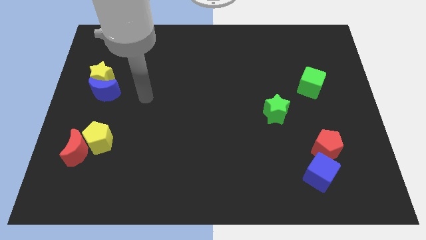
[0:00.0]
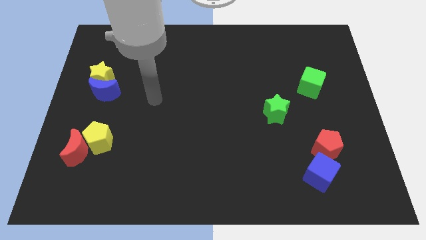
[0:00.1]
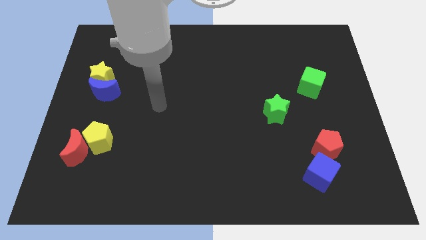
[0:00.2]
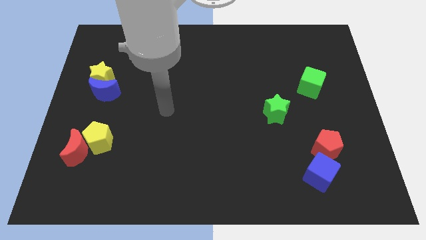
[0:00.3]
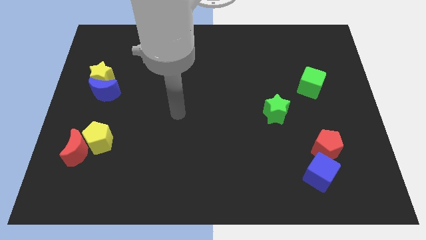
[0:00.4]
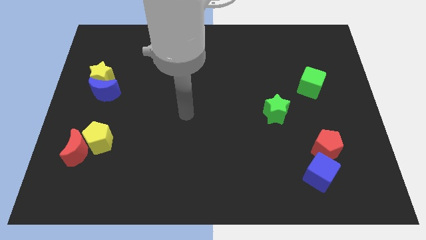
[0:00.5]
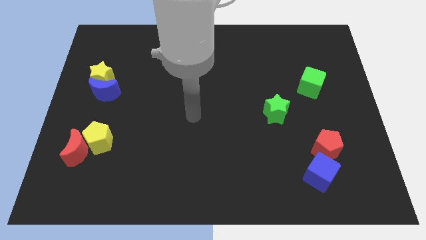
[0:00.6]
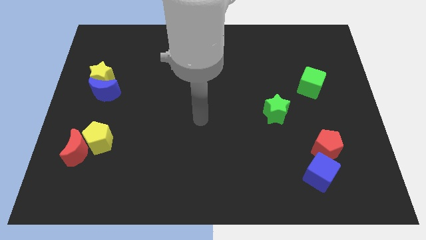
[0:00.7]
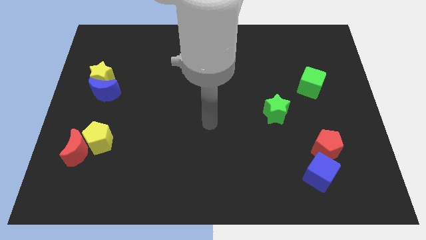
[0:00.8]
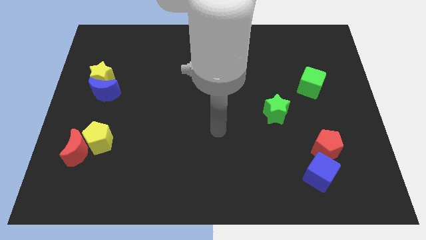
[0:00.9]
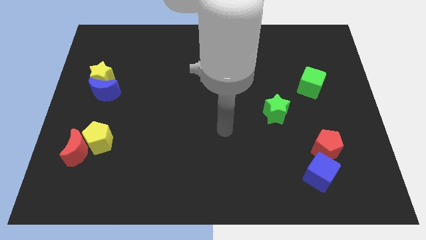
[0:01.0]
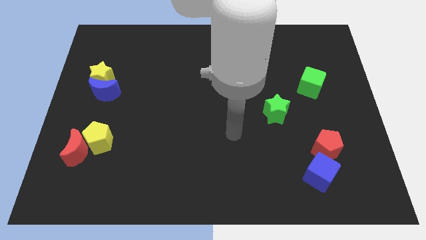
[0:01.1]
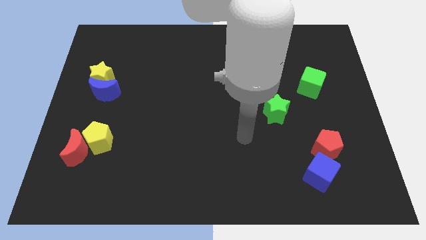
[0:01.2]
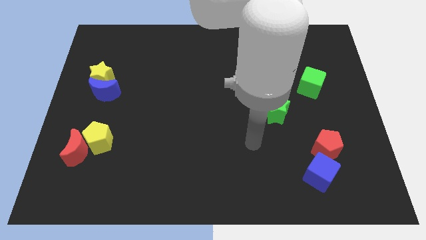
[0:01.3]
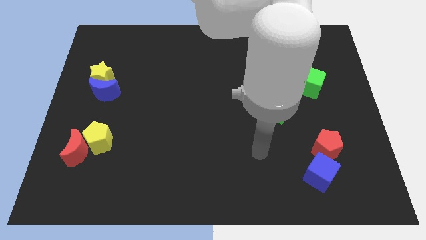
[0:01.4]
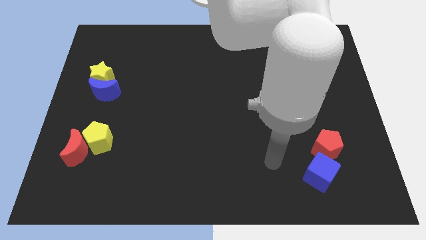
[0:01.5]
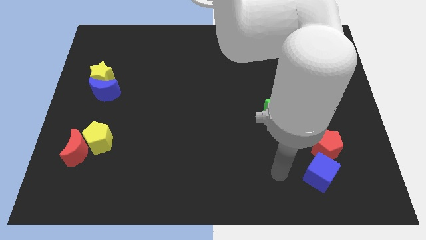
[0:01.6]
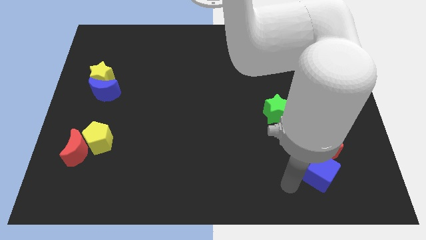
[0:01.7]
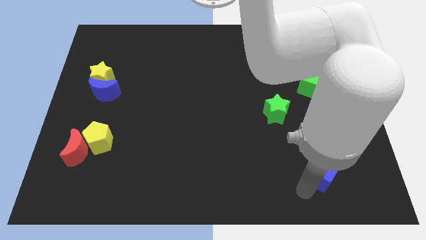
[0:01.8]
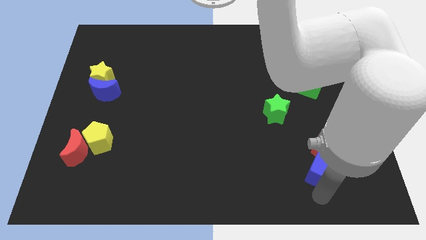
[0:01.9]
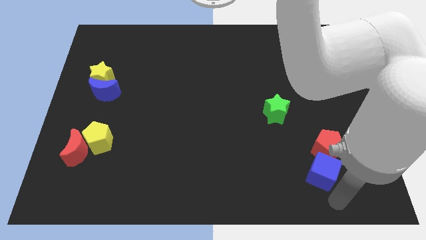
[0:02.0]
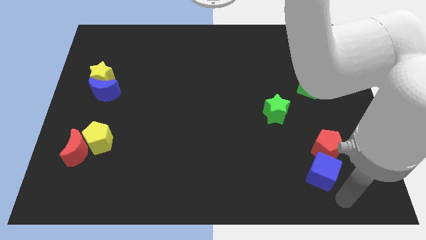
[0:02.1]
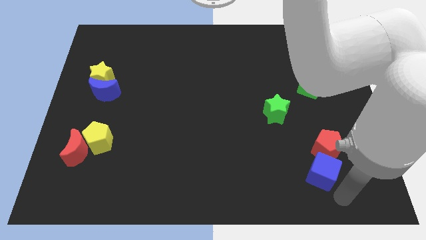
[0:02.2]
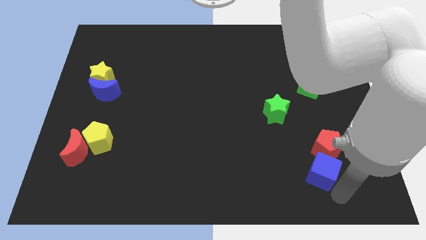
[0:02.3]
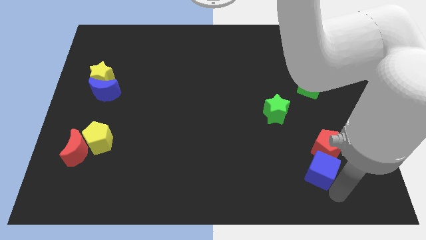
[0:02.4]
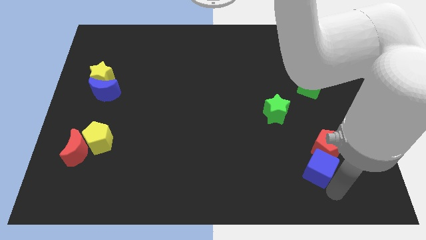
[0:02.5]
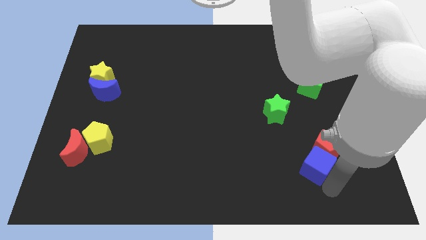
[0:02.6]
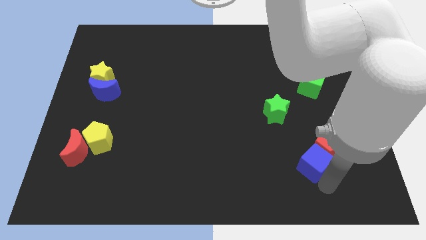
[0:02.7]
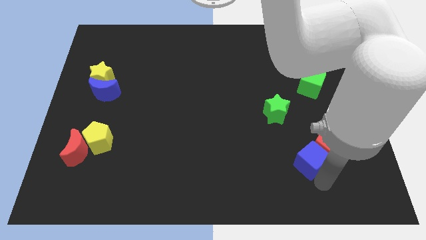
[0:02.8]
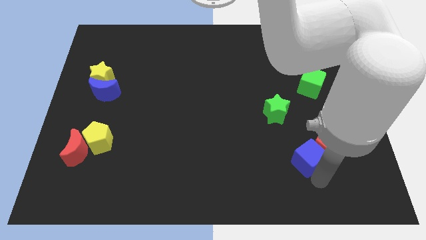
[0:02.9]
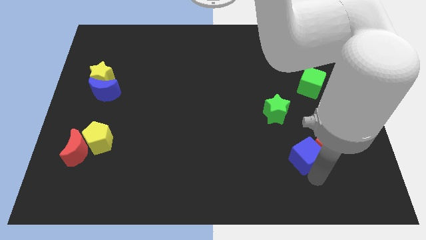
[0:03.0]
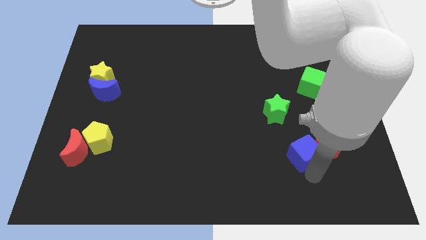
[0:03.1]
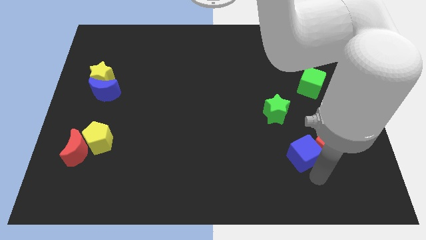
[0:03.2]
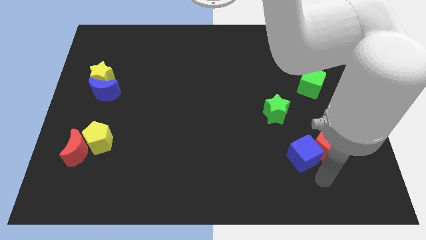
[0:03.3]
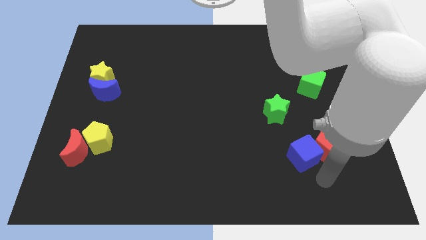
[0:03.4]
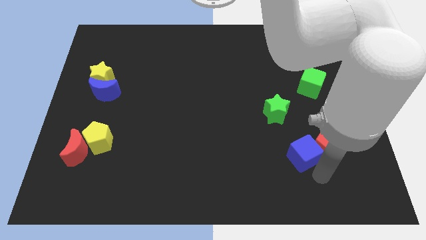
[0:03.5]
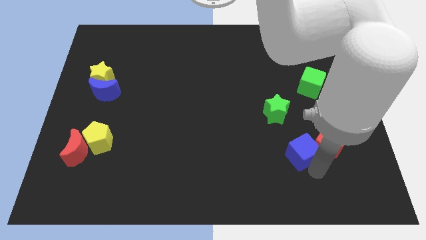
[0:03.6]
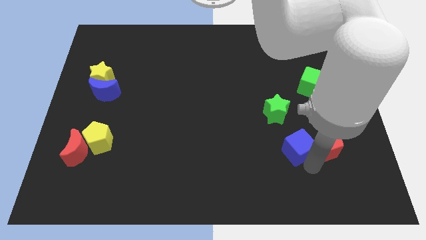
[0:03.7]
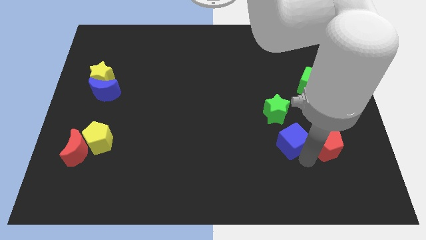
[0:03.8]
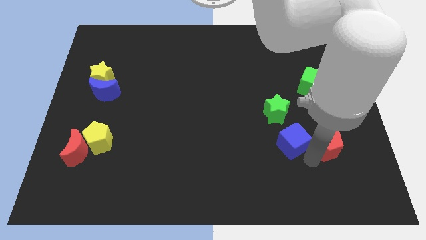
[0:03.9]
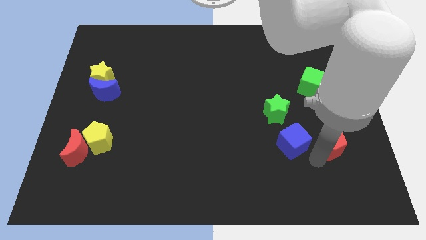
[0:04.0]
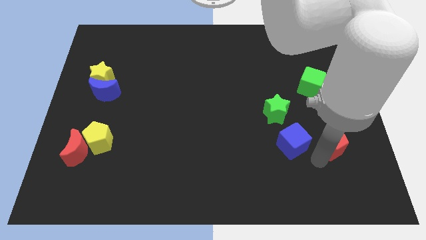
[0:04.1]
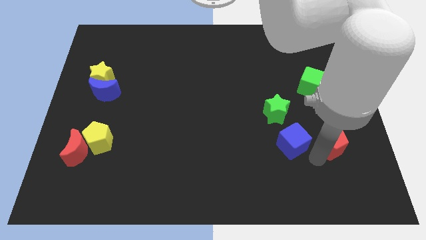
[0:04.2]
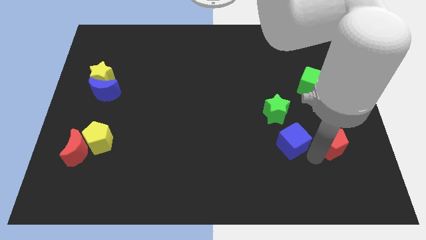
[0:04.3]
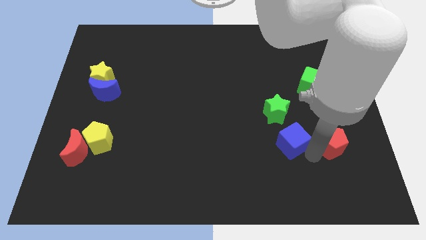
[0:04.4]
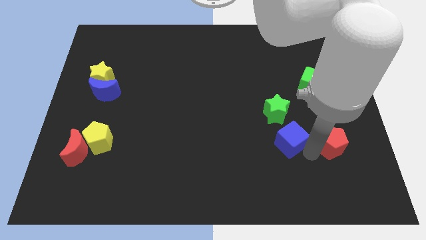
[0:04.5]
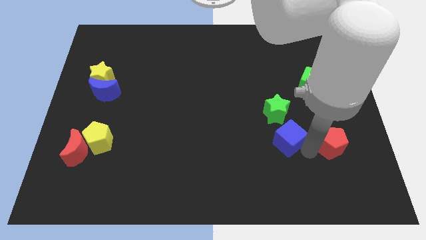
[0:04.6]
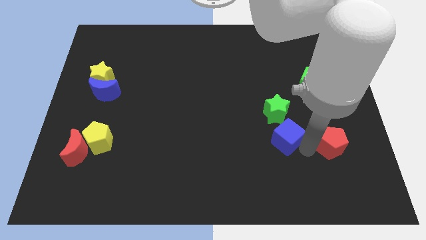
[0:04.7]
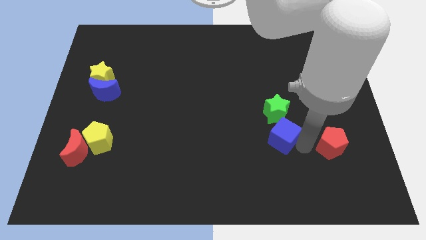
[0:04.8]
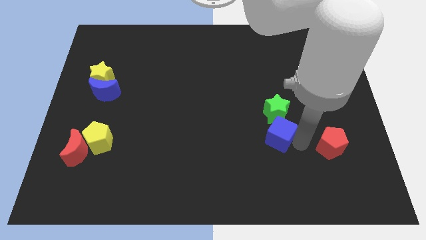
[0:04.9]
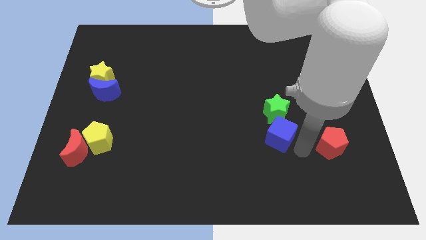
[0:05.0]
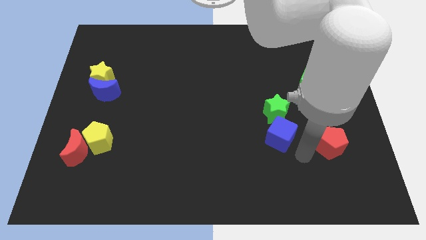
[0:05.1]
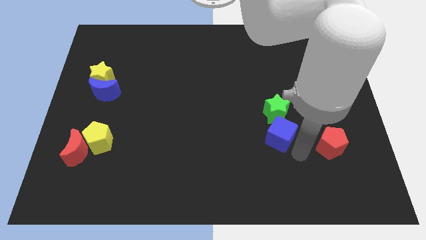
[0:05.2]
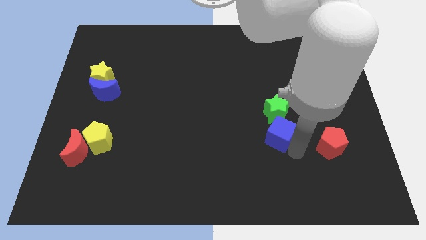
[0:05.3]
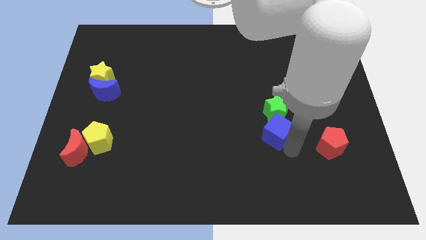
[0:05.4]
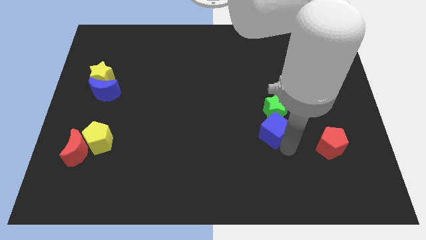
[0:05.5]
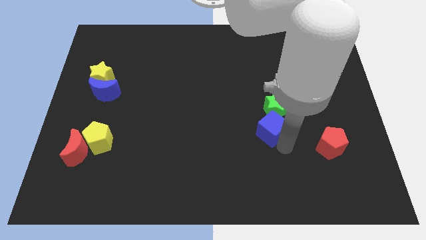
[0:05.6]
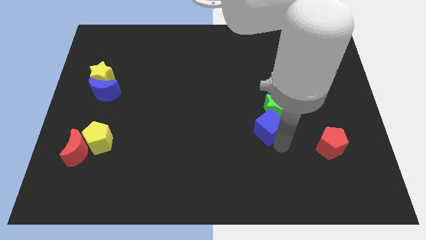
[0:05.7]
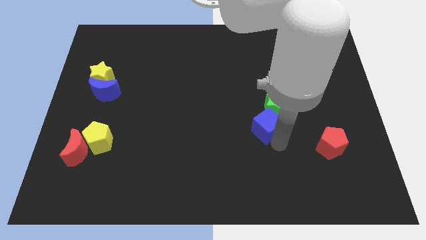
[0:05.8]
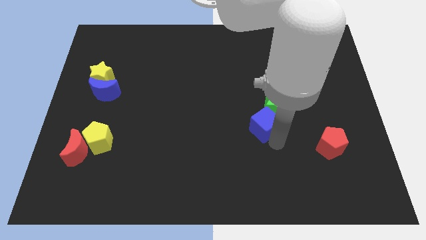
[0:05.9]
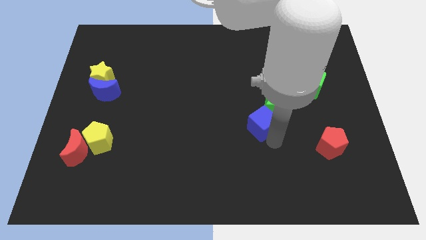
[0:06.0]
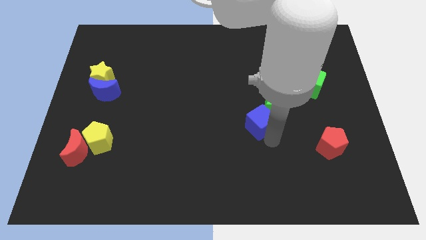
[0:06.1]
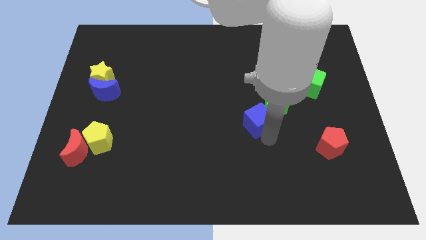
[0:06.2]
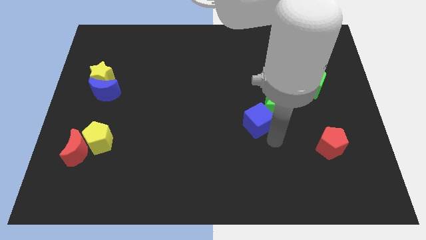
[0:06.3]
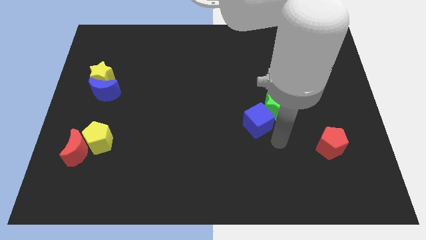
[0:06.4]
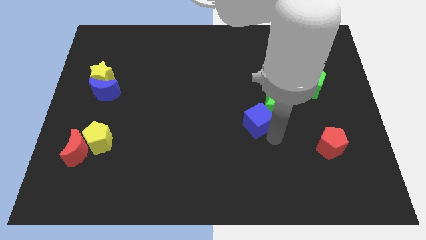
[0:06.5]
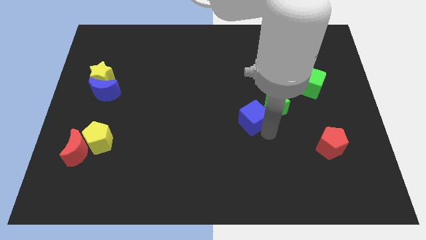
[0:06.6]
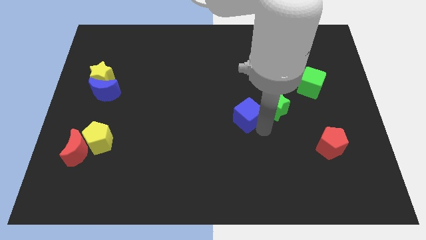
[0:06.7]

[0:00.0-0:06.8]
push the blue cube up and to the left

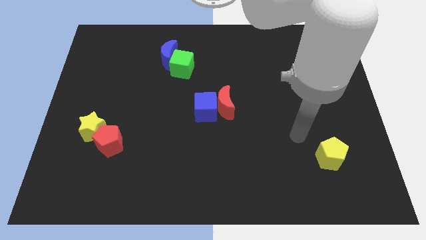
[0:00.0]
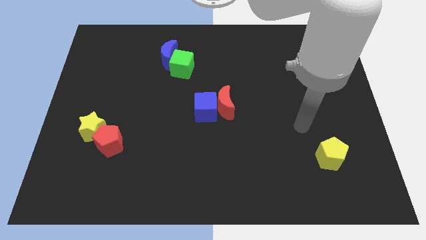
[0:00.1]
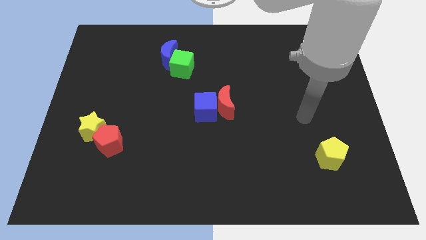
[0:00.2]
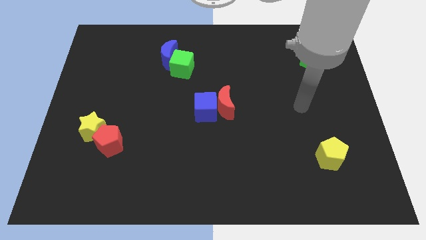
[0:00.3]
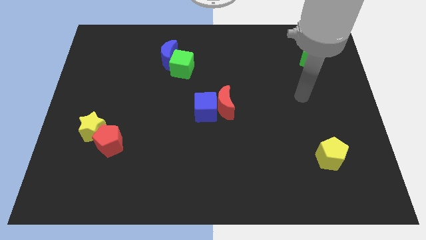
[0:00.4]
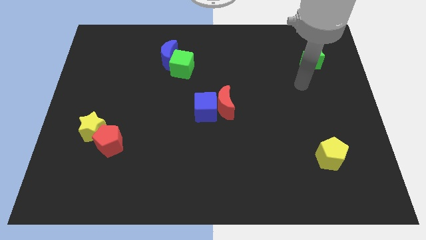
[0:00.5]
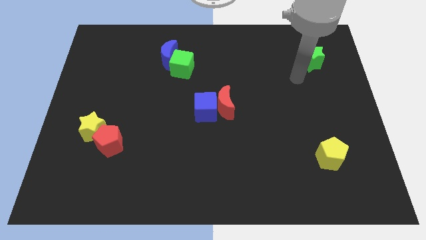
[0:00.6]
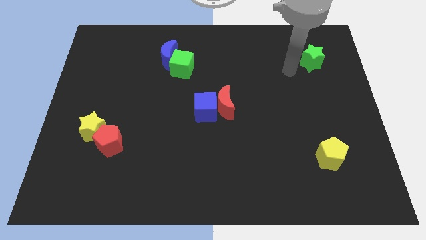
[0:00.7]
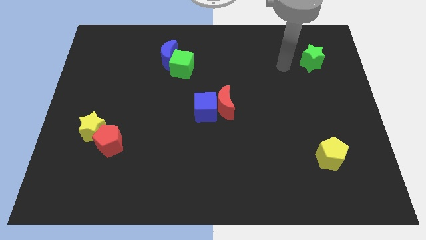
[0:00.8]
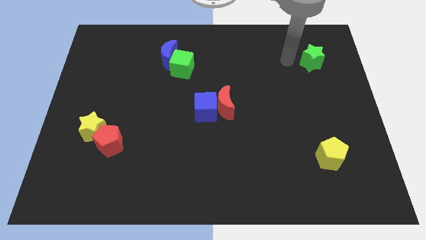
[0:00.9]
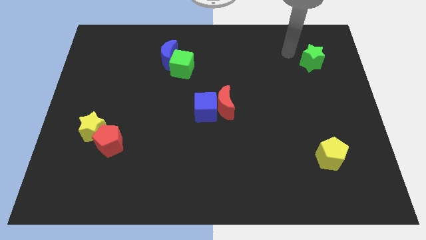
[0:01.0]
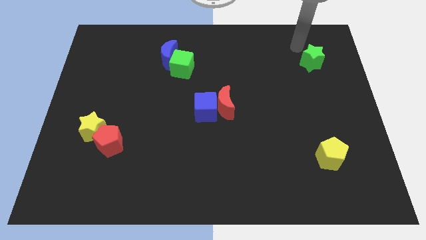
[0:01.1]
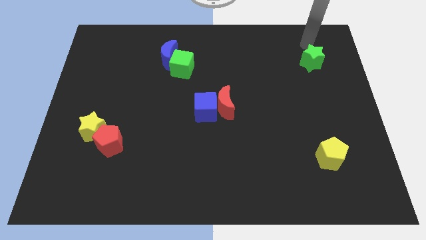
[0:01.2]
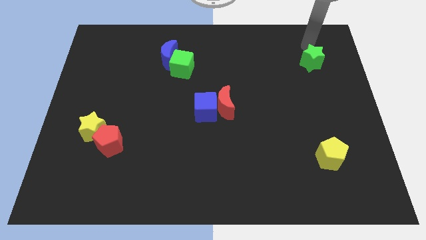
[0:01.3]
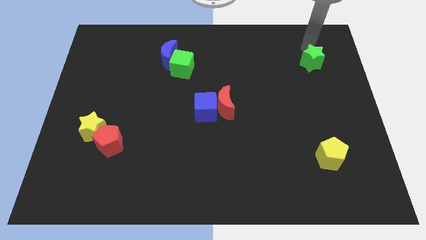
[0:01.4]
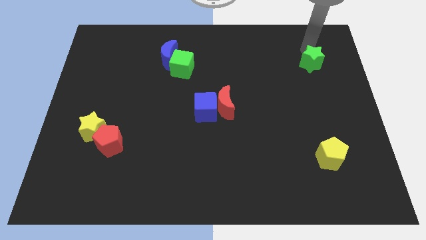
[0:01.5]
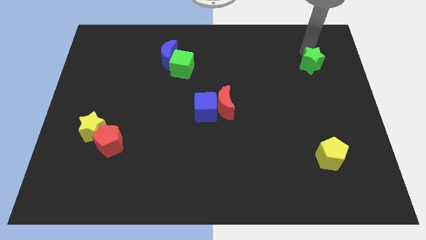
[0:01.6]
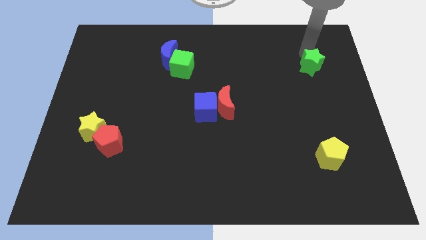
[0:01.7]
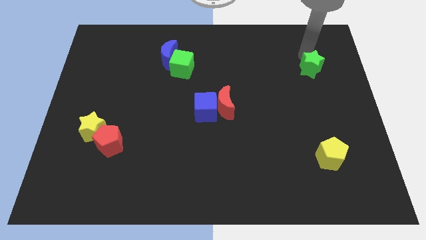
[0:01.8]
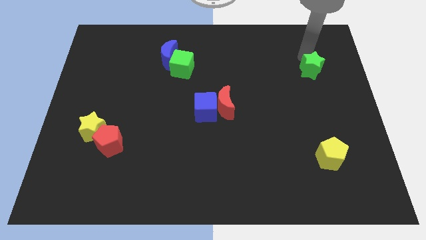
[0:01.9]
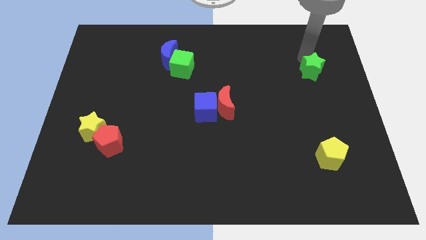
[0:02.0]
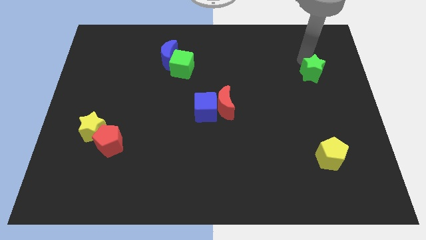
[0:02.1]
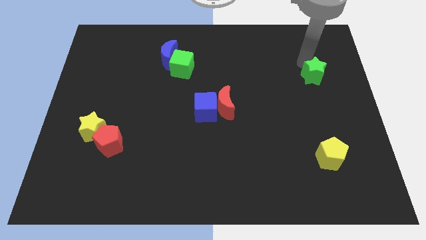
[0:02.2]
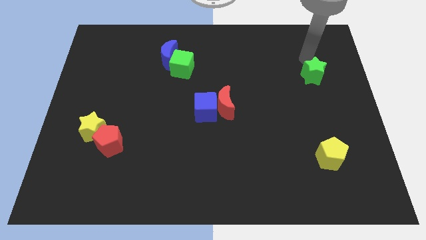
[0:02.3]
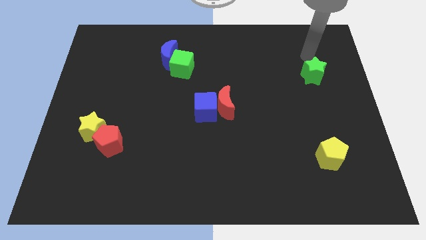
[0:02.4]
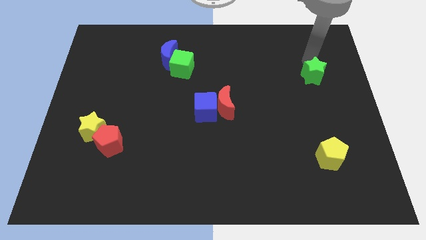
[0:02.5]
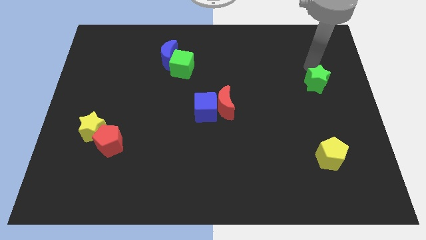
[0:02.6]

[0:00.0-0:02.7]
push the green star a bit downwards
